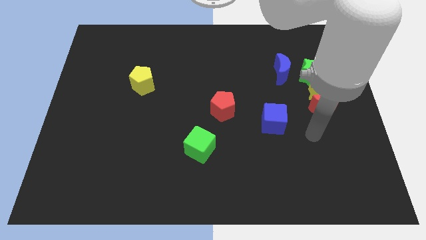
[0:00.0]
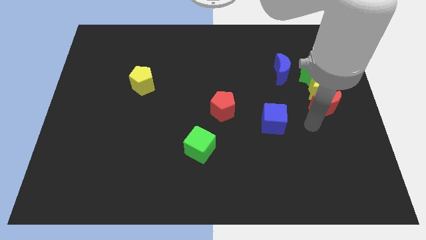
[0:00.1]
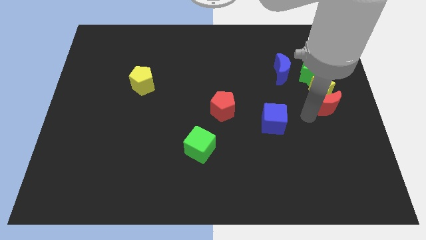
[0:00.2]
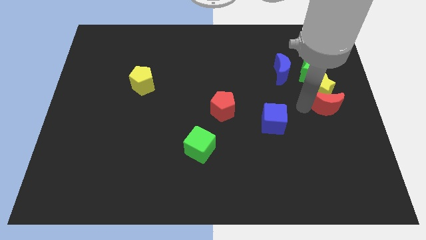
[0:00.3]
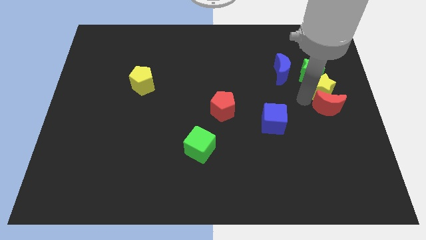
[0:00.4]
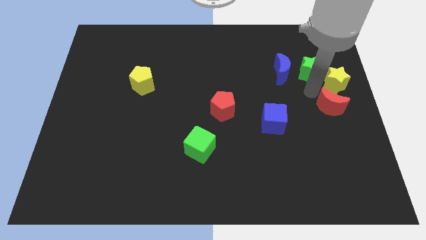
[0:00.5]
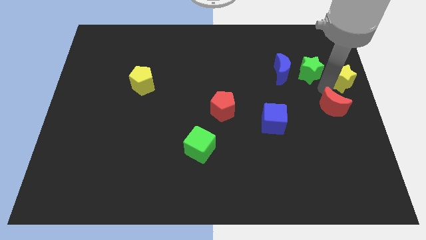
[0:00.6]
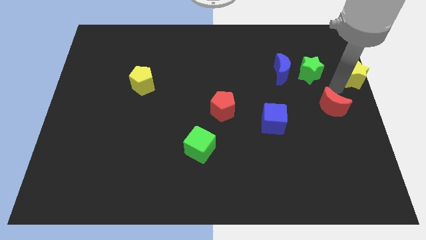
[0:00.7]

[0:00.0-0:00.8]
pull the red moon apart from the yellow star

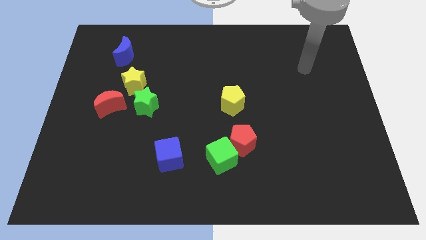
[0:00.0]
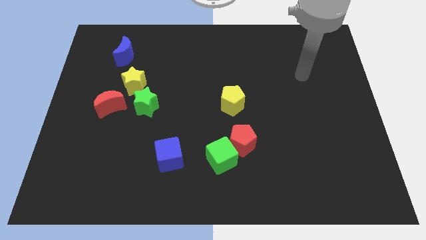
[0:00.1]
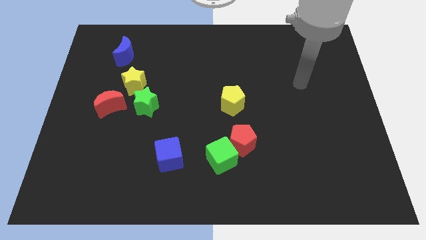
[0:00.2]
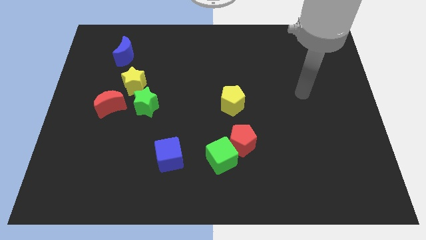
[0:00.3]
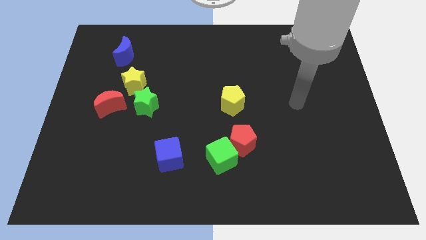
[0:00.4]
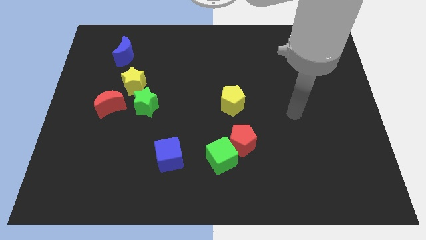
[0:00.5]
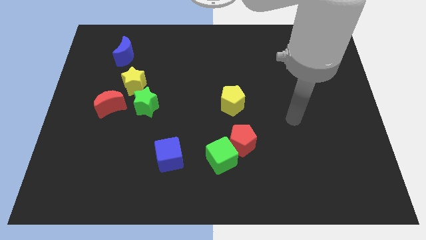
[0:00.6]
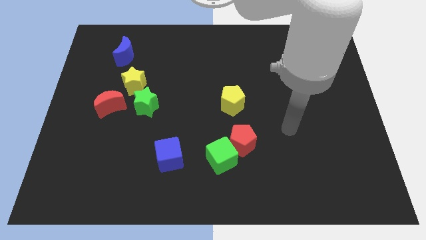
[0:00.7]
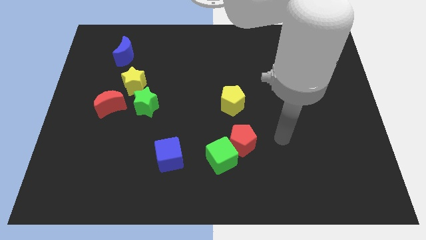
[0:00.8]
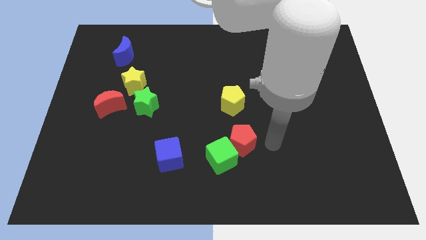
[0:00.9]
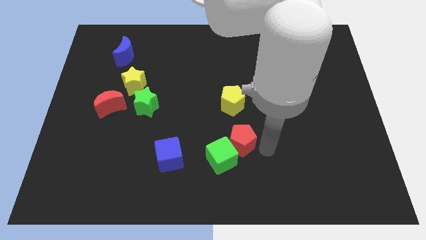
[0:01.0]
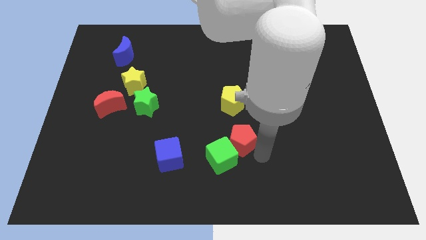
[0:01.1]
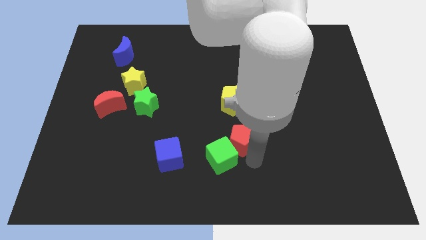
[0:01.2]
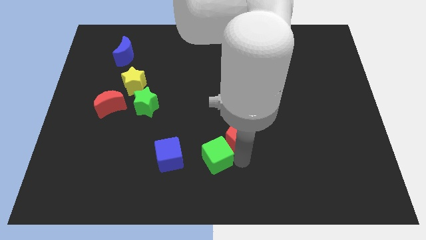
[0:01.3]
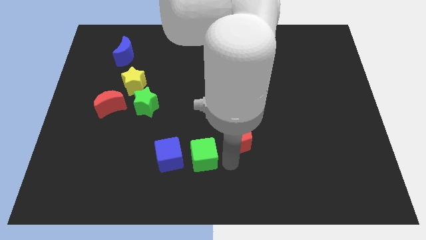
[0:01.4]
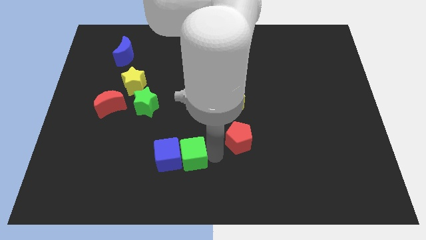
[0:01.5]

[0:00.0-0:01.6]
separate the red pentagon from the green cube

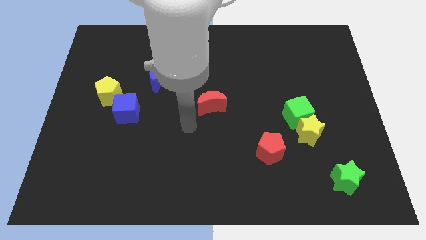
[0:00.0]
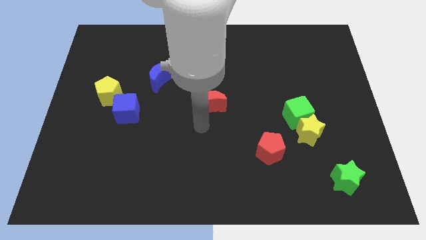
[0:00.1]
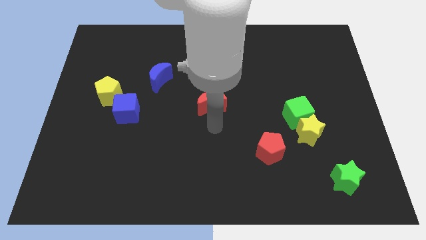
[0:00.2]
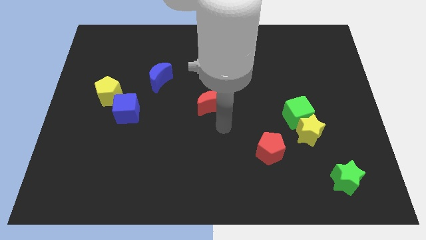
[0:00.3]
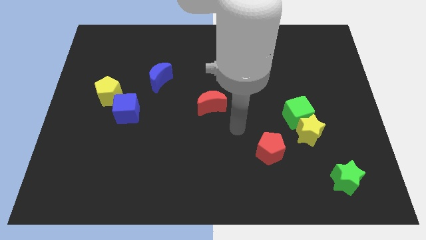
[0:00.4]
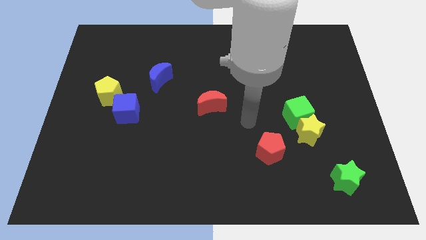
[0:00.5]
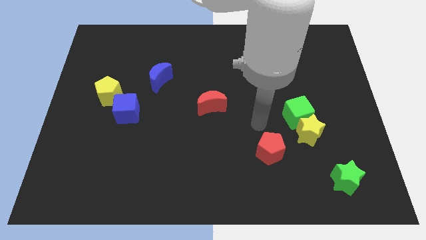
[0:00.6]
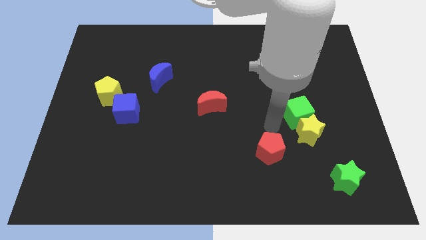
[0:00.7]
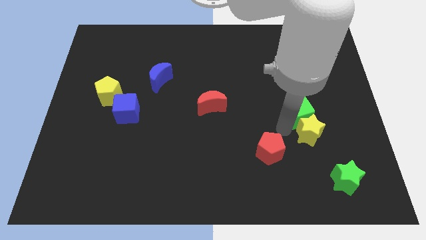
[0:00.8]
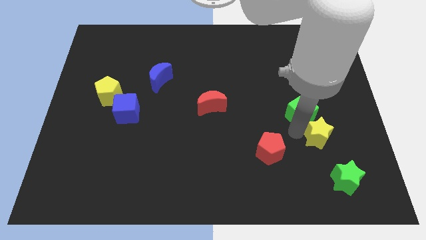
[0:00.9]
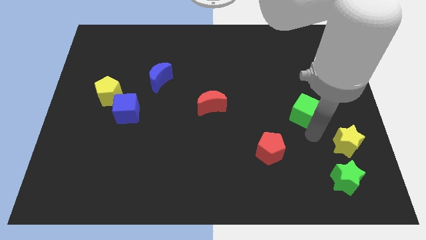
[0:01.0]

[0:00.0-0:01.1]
separate the green cube from the yellow star

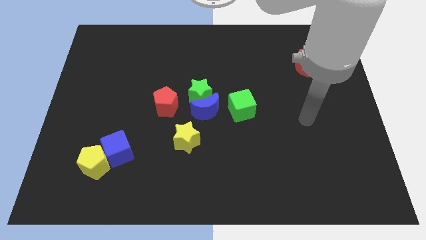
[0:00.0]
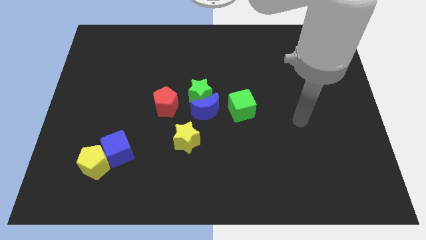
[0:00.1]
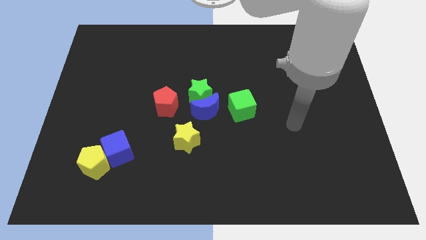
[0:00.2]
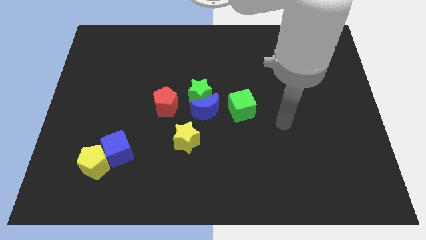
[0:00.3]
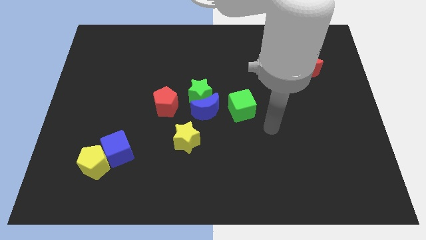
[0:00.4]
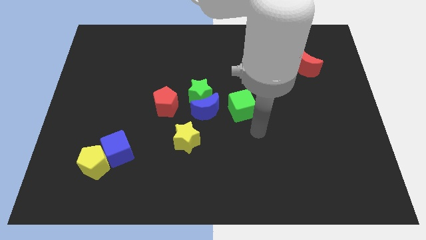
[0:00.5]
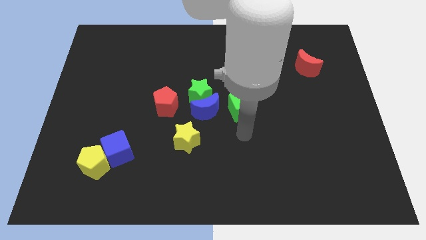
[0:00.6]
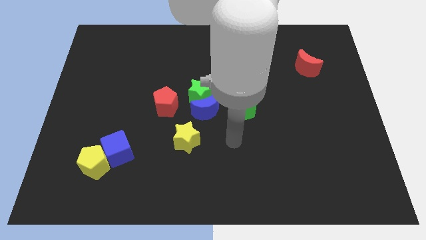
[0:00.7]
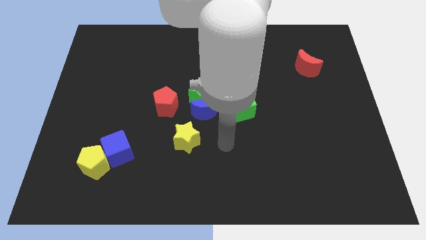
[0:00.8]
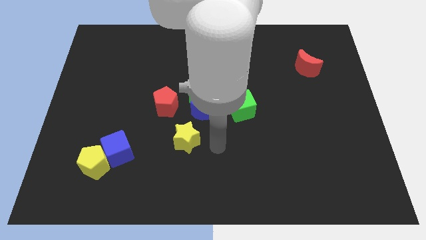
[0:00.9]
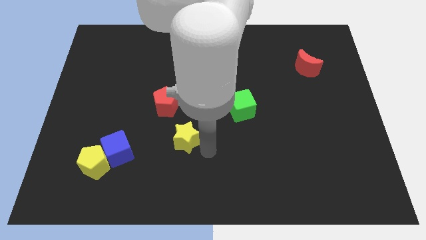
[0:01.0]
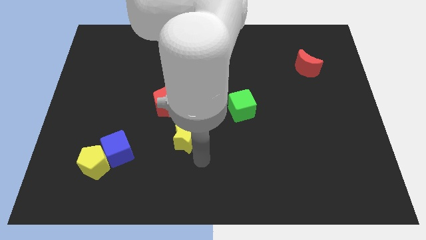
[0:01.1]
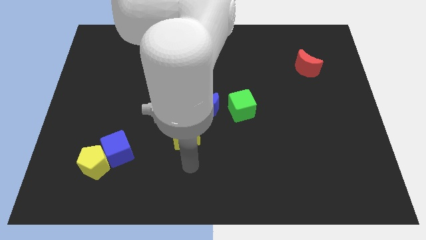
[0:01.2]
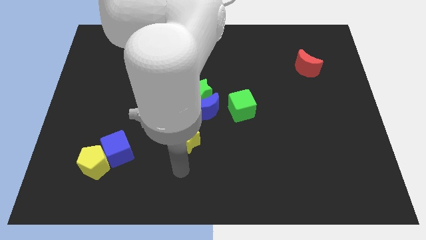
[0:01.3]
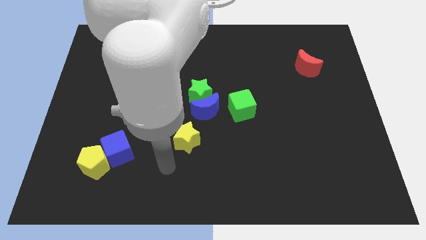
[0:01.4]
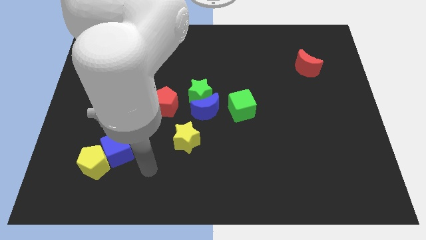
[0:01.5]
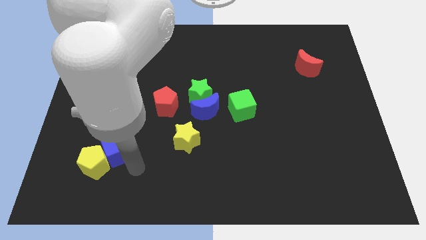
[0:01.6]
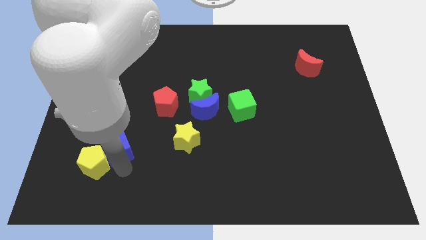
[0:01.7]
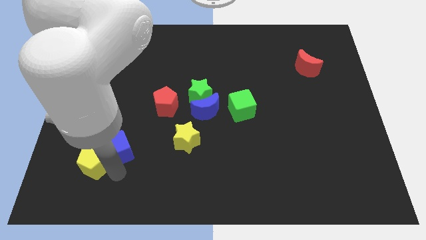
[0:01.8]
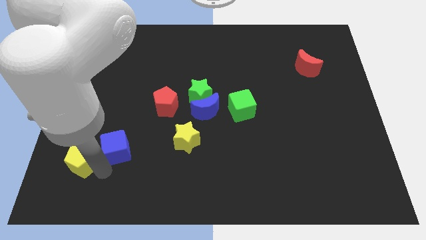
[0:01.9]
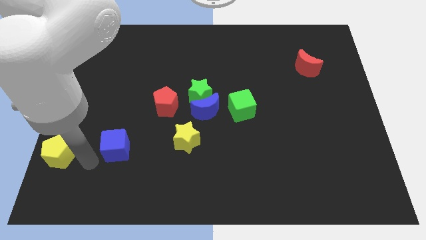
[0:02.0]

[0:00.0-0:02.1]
move the blue cube away from the yellow pentagon

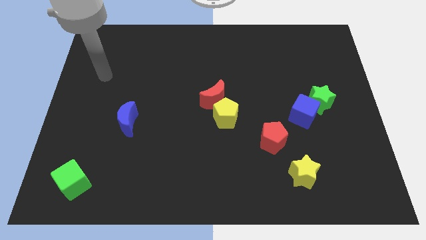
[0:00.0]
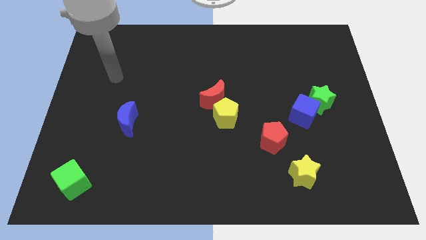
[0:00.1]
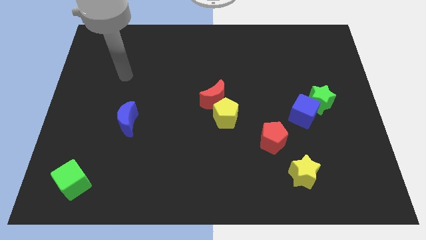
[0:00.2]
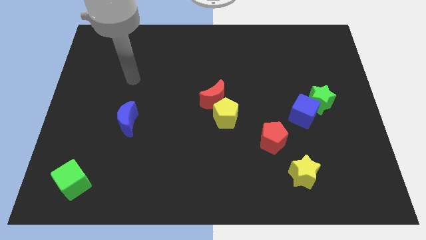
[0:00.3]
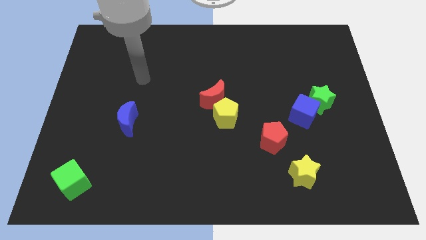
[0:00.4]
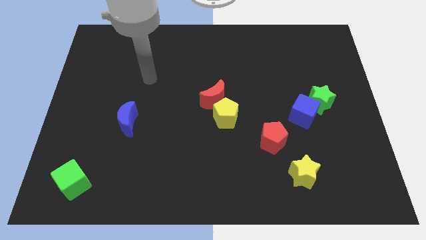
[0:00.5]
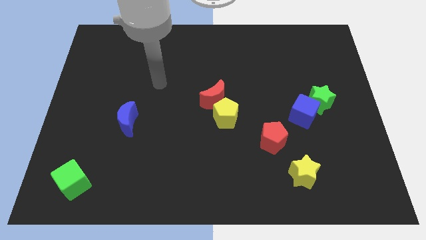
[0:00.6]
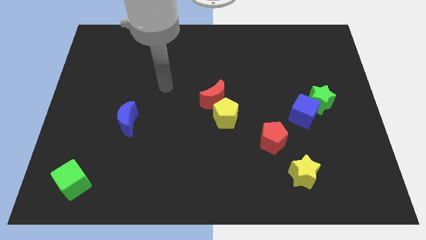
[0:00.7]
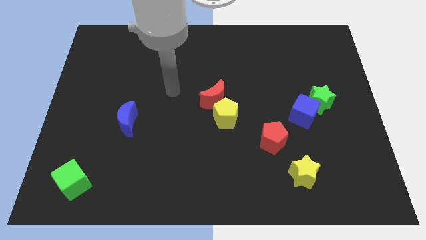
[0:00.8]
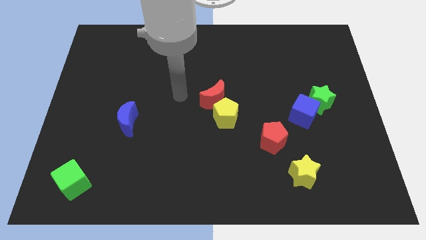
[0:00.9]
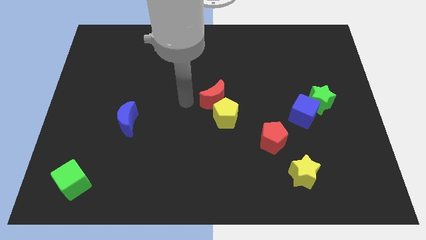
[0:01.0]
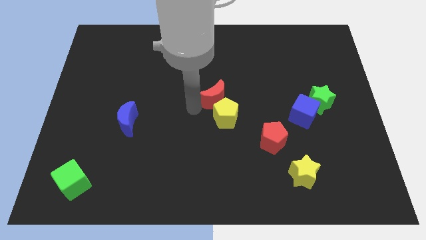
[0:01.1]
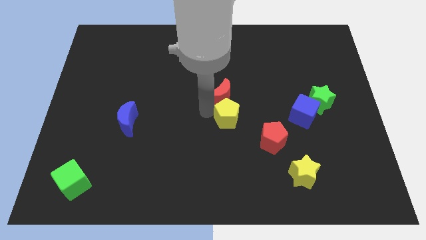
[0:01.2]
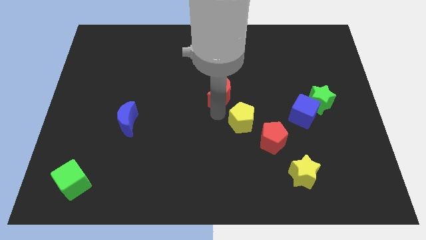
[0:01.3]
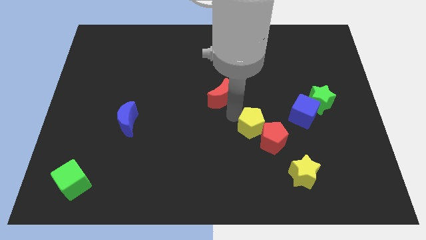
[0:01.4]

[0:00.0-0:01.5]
separate the red moon from the yellow pentagon

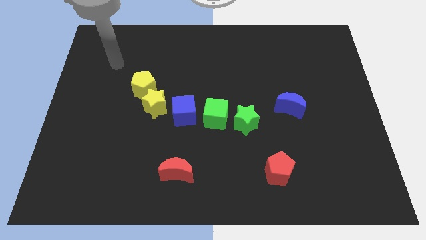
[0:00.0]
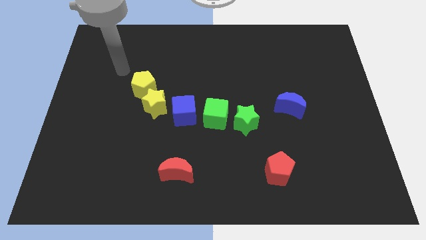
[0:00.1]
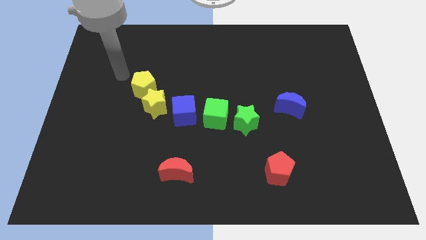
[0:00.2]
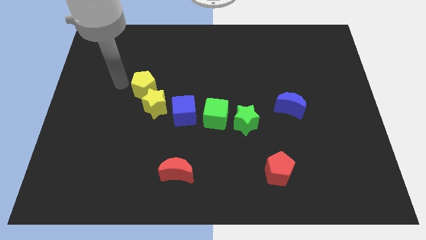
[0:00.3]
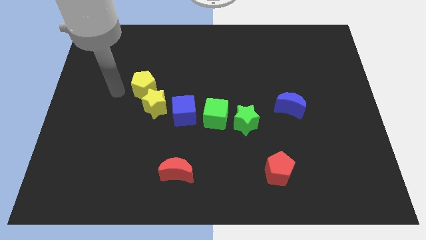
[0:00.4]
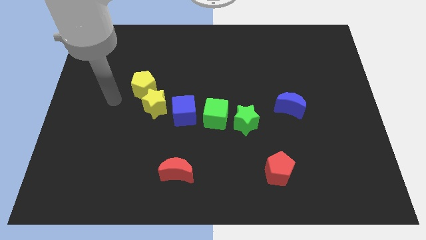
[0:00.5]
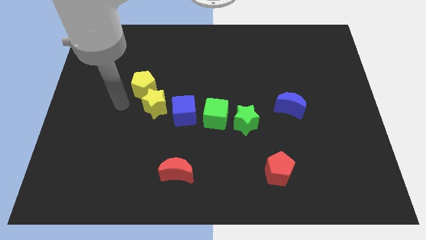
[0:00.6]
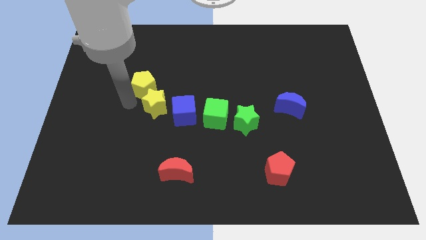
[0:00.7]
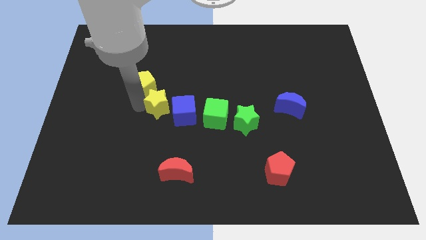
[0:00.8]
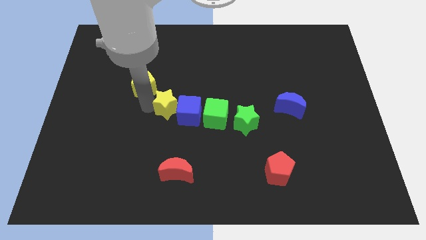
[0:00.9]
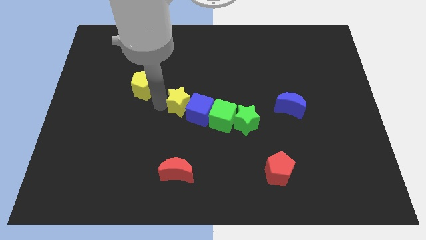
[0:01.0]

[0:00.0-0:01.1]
move the yellow pentagon away from the yellow star

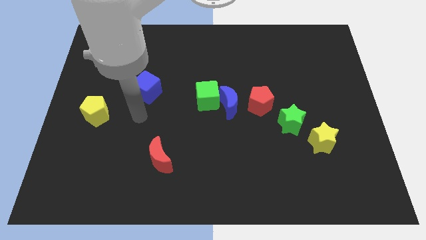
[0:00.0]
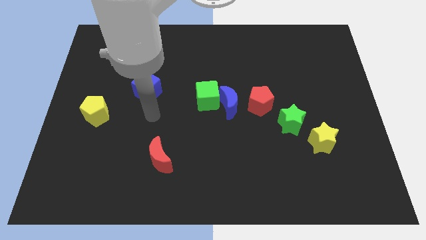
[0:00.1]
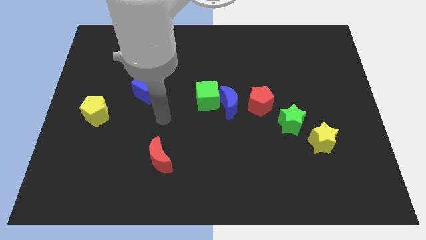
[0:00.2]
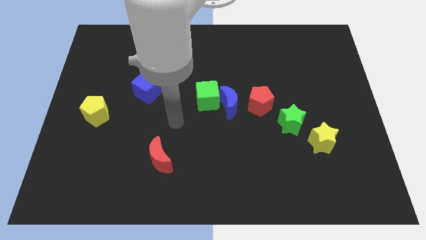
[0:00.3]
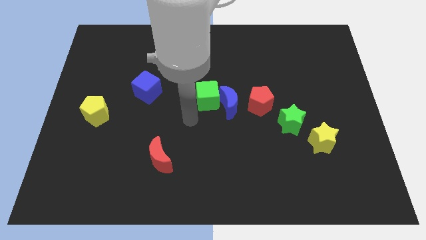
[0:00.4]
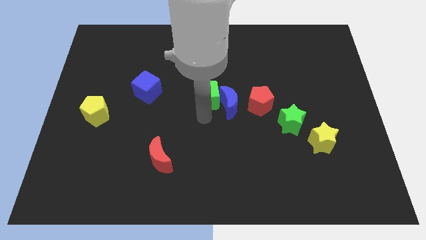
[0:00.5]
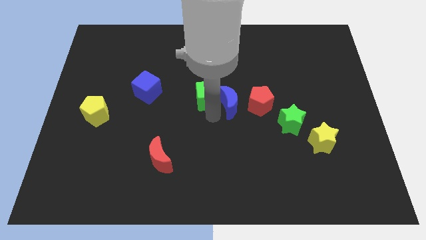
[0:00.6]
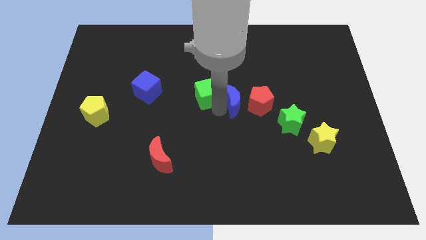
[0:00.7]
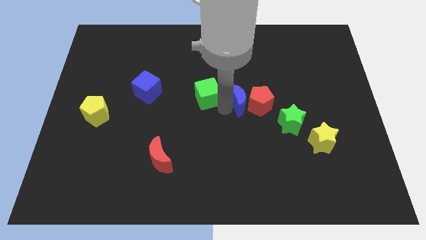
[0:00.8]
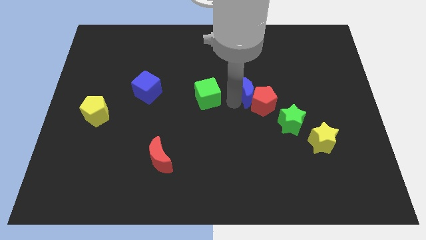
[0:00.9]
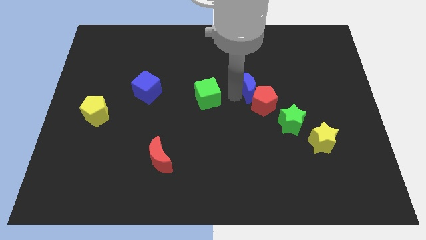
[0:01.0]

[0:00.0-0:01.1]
move the green cube away from the blue moon

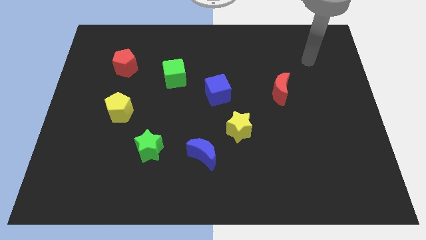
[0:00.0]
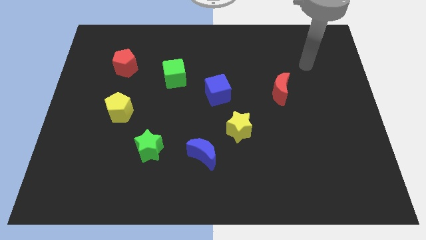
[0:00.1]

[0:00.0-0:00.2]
move the blue moon away from the yellow star
